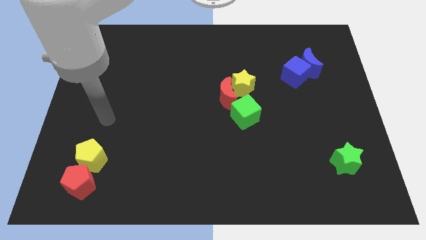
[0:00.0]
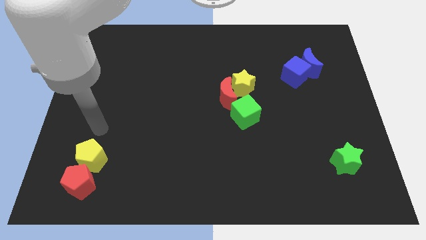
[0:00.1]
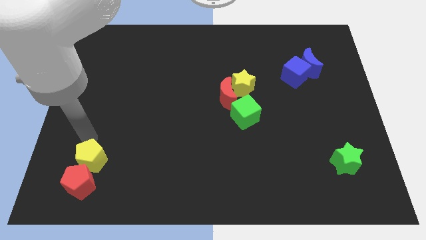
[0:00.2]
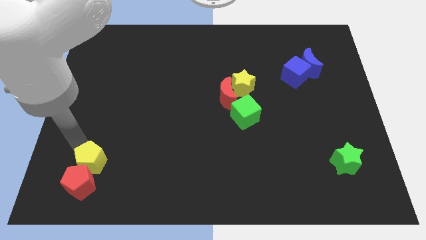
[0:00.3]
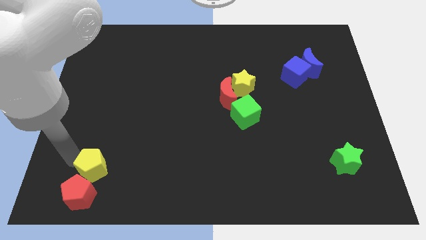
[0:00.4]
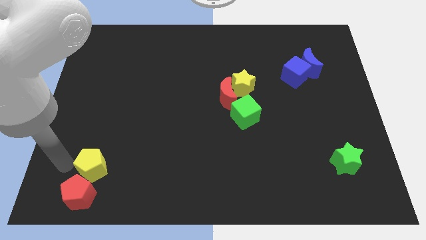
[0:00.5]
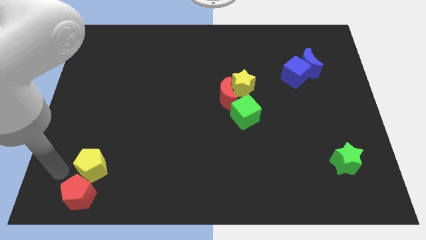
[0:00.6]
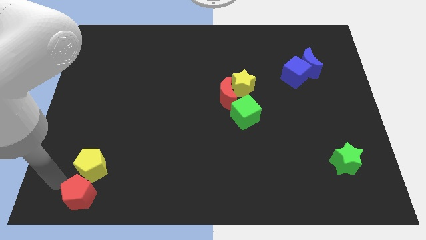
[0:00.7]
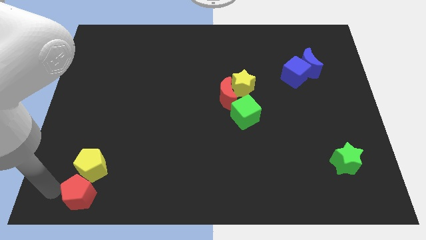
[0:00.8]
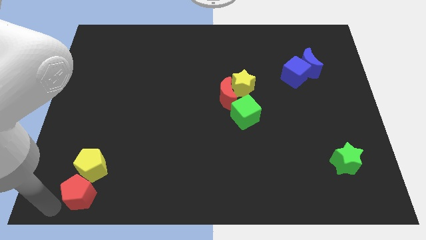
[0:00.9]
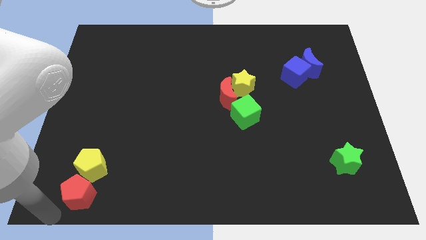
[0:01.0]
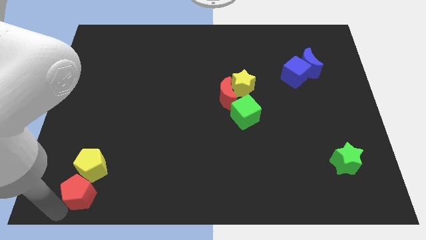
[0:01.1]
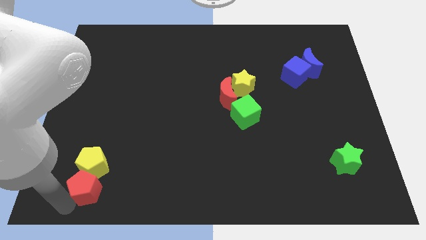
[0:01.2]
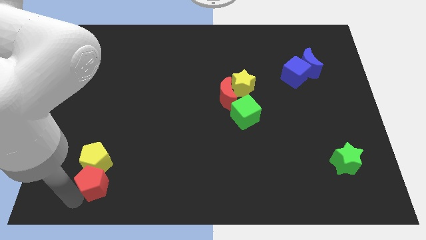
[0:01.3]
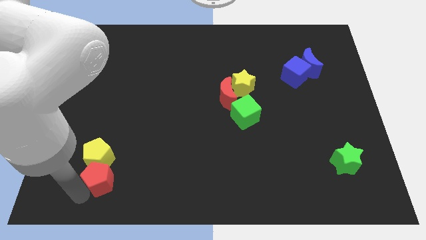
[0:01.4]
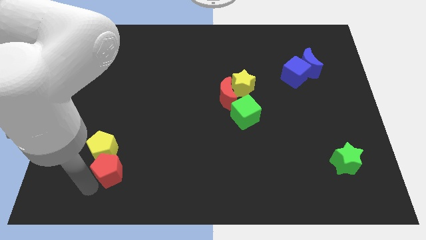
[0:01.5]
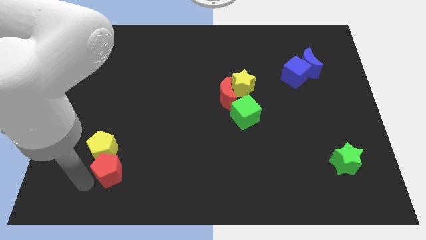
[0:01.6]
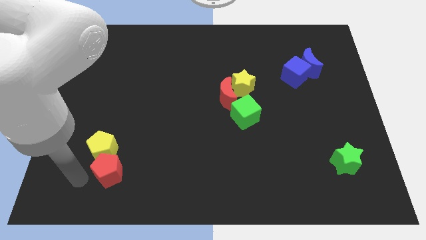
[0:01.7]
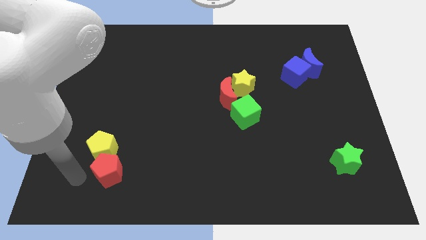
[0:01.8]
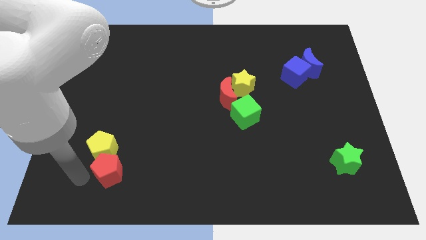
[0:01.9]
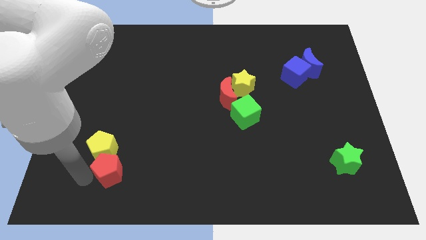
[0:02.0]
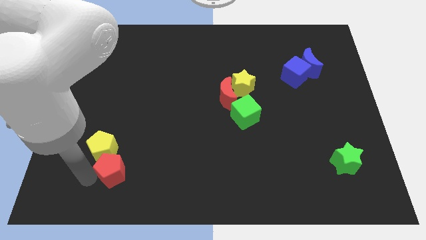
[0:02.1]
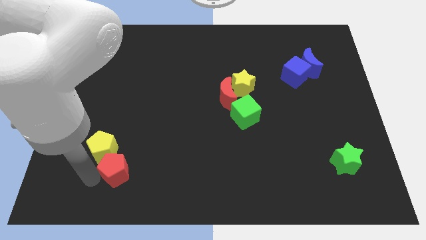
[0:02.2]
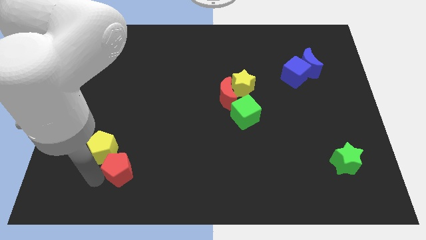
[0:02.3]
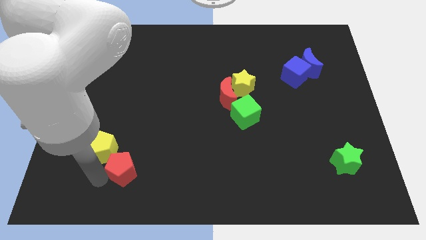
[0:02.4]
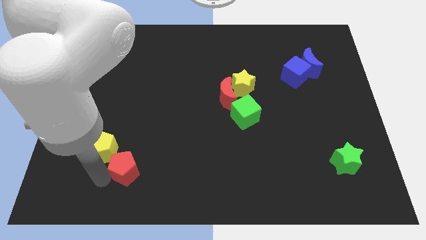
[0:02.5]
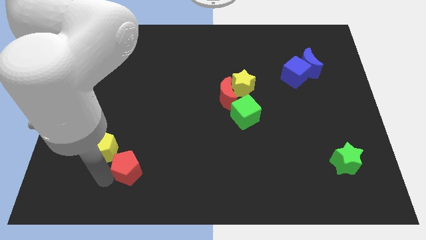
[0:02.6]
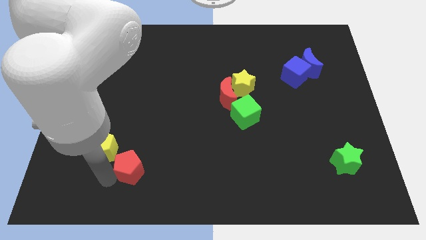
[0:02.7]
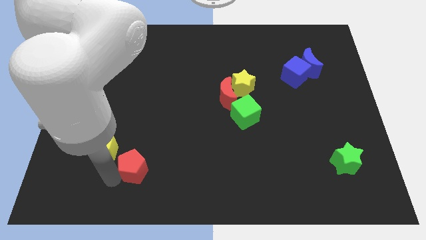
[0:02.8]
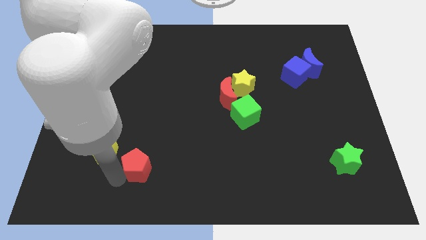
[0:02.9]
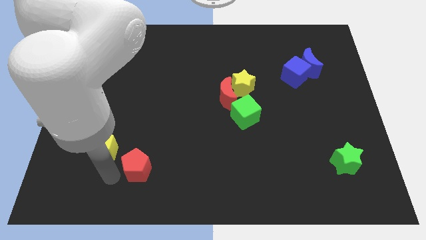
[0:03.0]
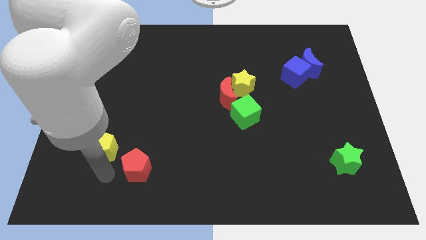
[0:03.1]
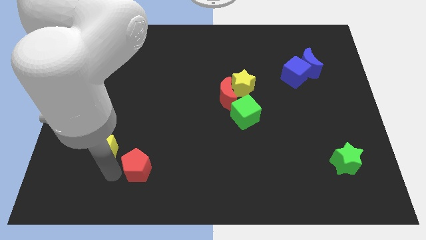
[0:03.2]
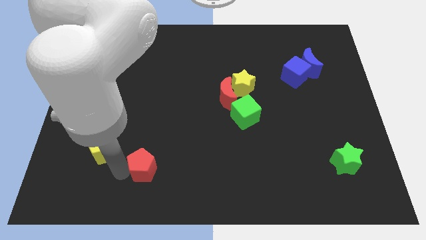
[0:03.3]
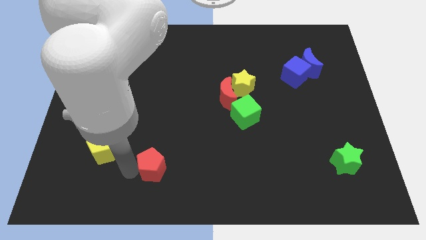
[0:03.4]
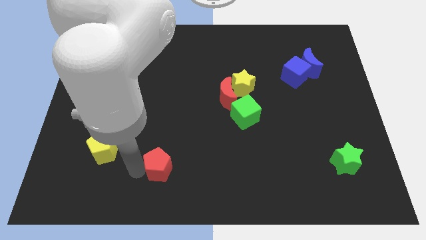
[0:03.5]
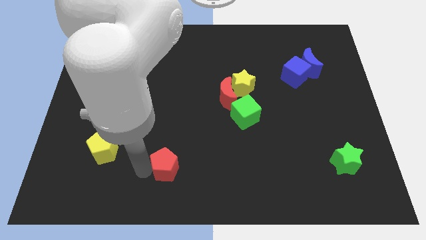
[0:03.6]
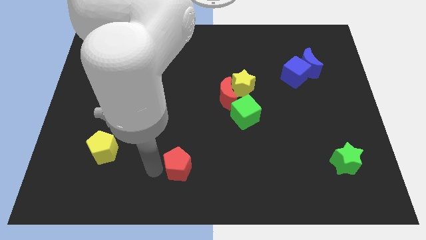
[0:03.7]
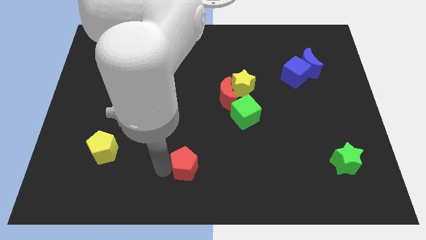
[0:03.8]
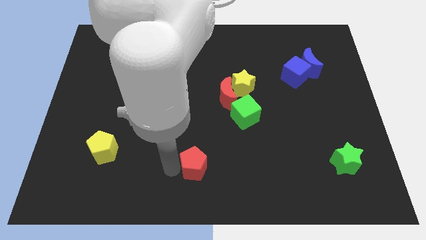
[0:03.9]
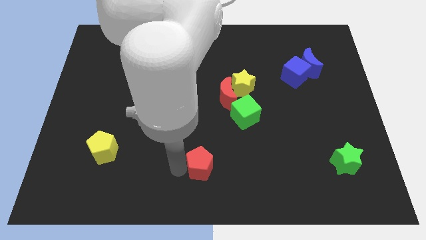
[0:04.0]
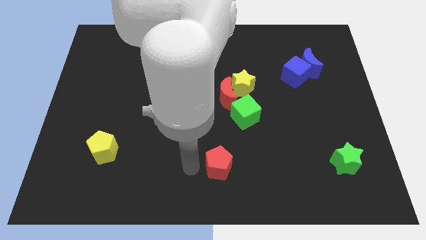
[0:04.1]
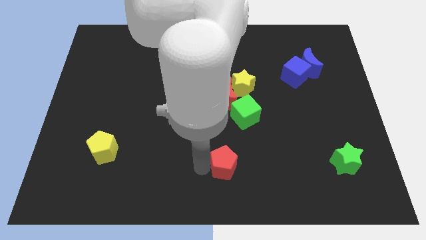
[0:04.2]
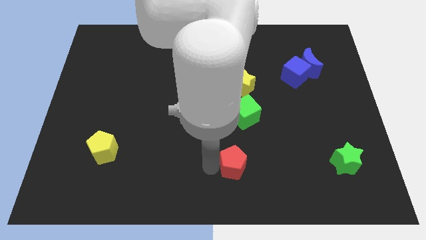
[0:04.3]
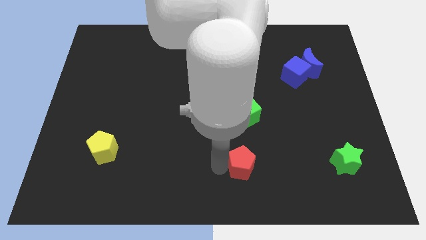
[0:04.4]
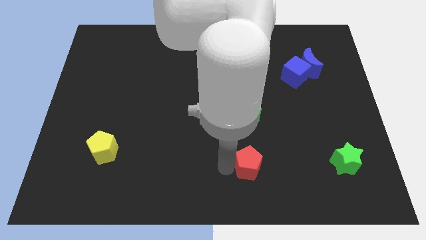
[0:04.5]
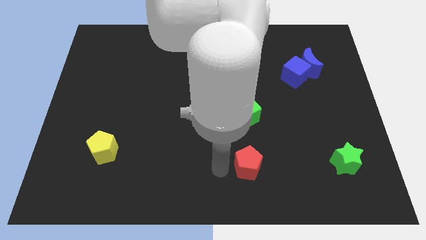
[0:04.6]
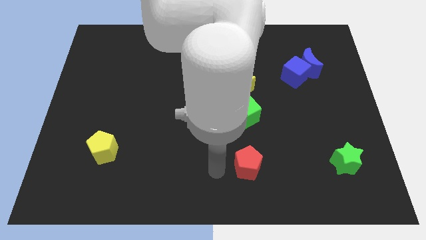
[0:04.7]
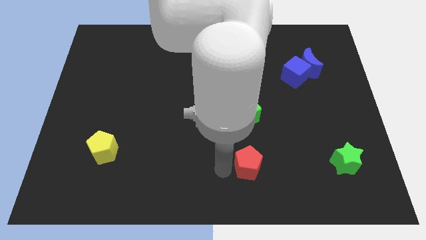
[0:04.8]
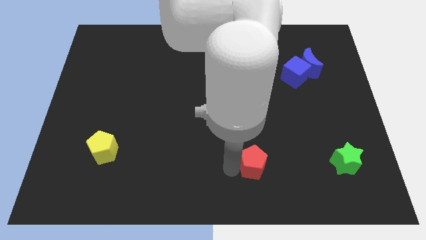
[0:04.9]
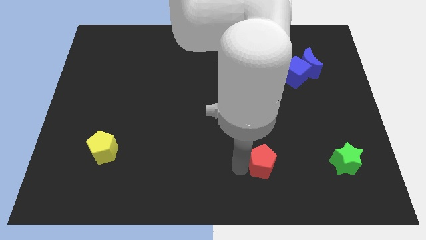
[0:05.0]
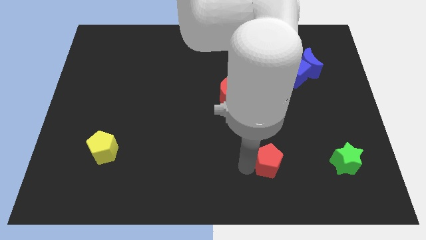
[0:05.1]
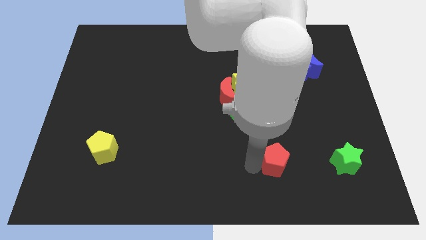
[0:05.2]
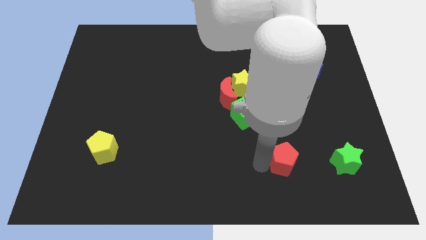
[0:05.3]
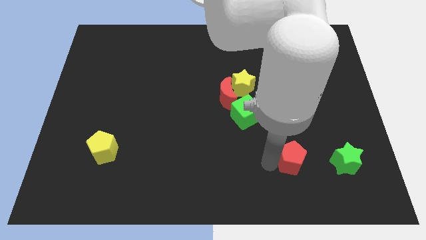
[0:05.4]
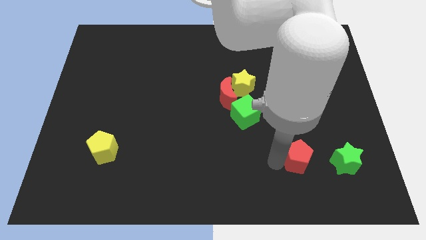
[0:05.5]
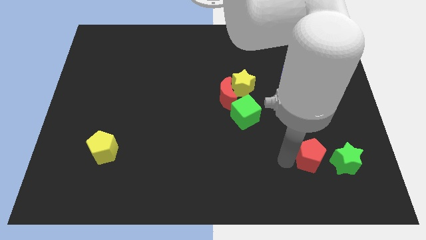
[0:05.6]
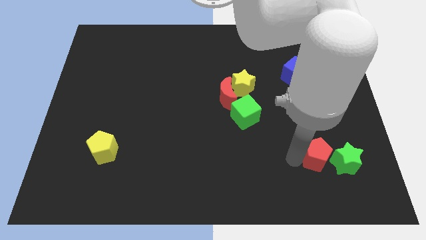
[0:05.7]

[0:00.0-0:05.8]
put the red pentagon next to the green star

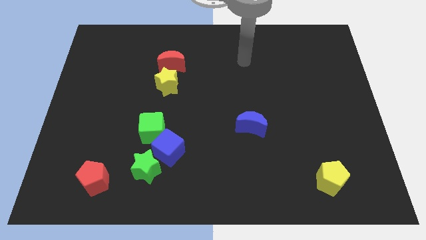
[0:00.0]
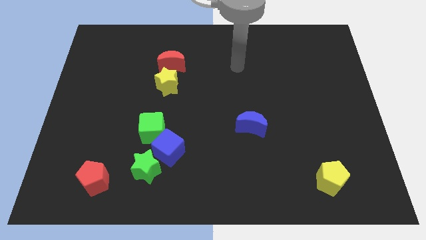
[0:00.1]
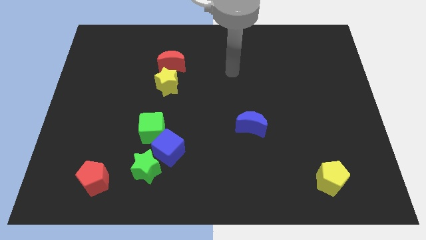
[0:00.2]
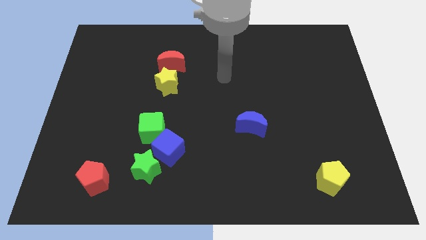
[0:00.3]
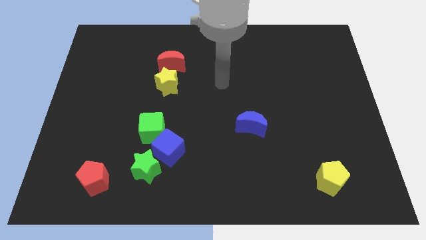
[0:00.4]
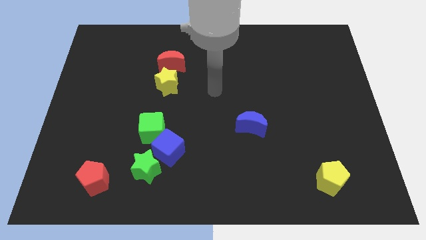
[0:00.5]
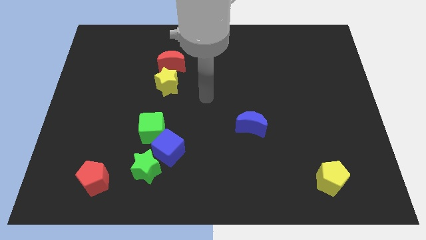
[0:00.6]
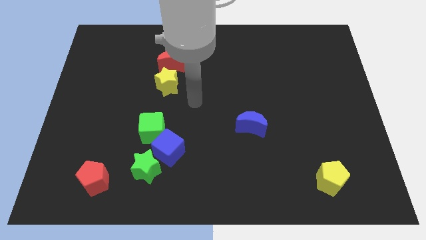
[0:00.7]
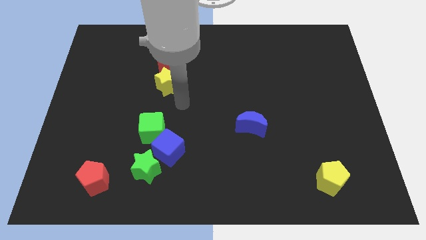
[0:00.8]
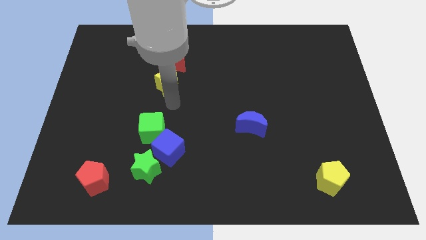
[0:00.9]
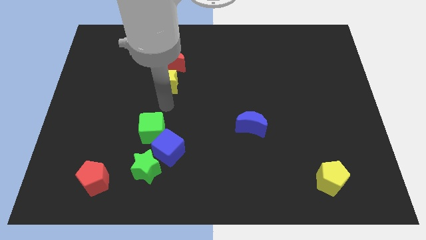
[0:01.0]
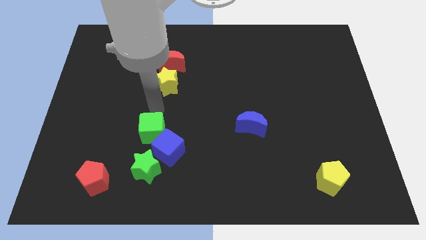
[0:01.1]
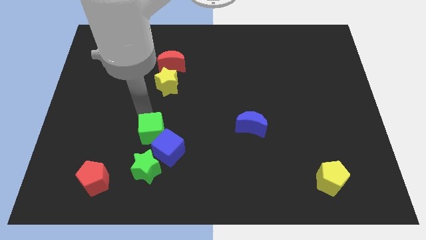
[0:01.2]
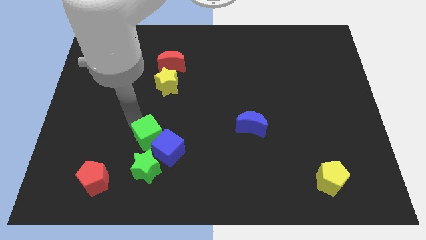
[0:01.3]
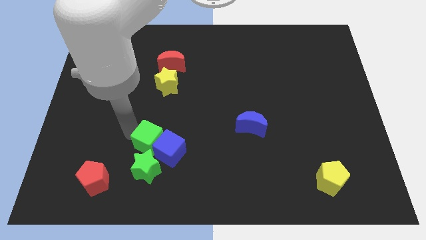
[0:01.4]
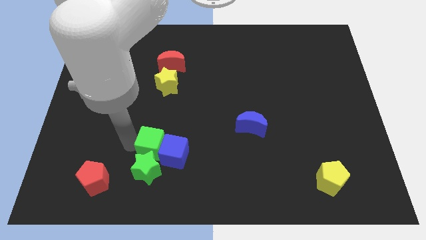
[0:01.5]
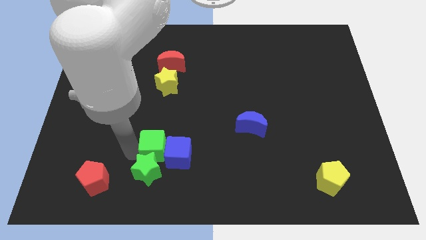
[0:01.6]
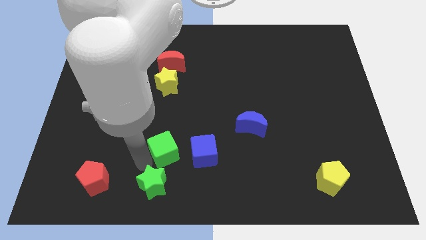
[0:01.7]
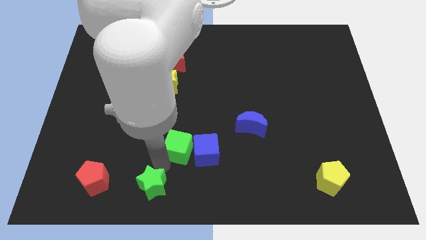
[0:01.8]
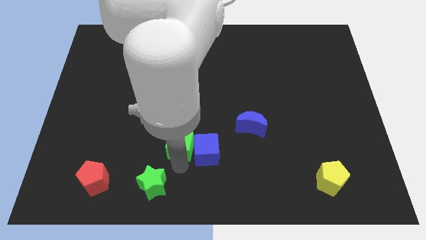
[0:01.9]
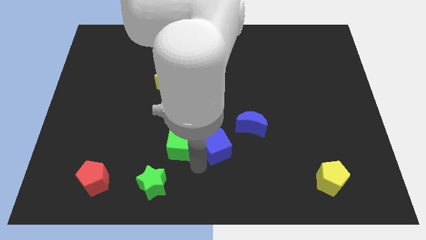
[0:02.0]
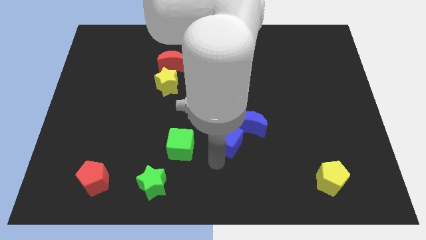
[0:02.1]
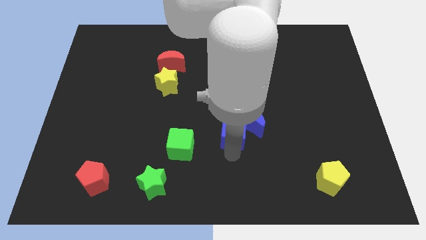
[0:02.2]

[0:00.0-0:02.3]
push the blue cube close to the blue moon

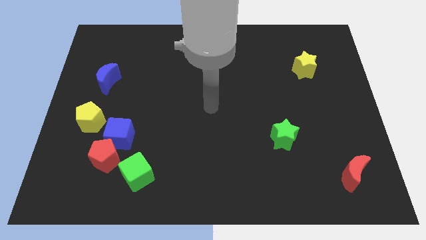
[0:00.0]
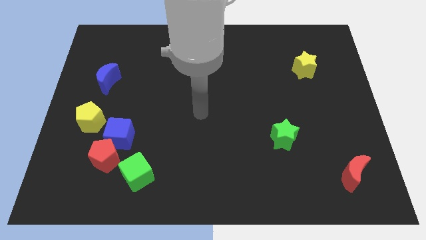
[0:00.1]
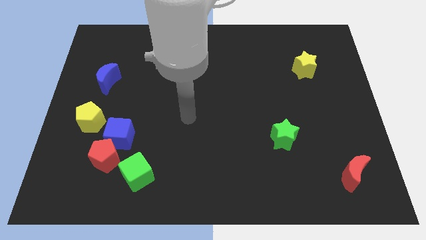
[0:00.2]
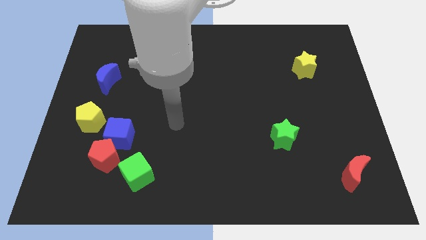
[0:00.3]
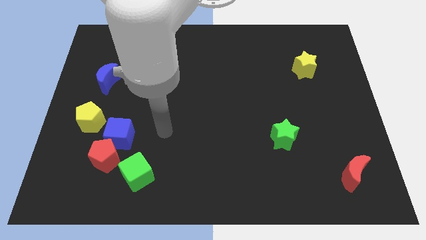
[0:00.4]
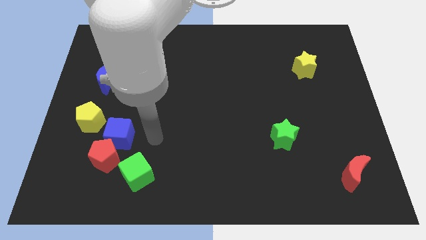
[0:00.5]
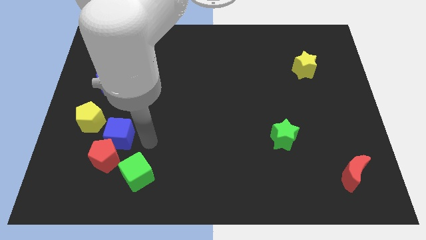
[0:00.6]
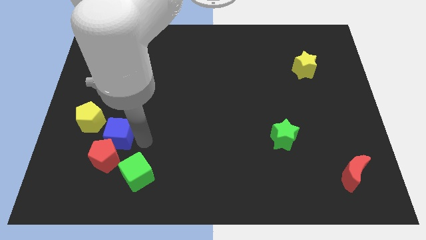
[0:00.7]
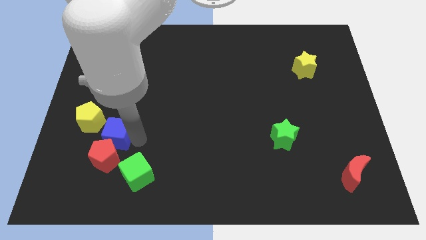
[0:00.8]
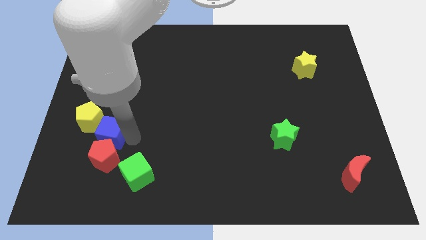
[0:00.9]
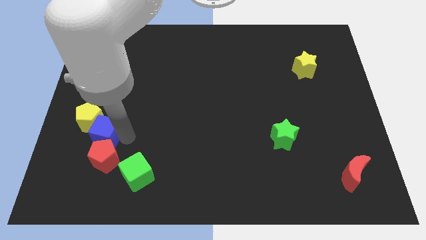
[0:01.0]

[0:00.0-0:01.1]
push the blue cube next to the yellow pentagon
